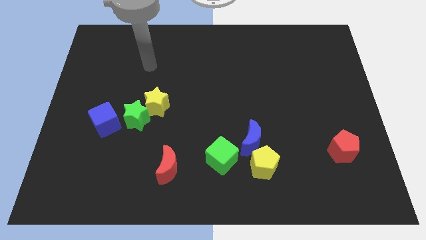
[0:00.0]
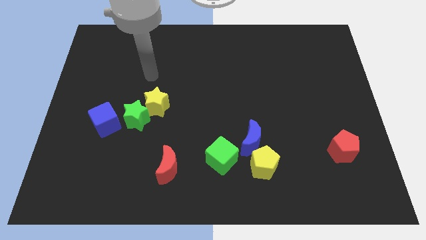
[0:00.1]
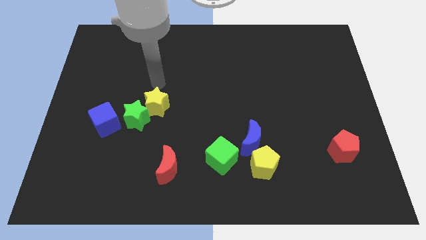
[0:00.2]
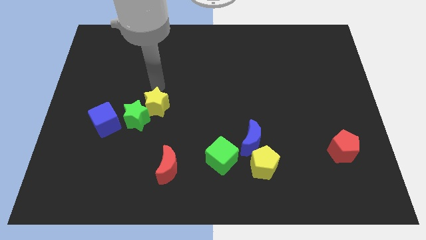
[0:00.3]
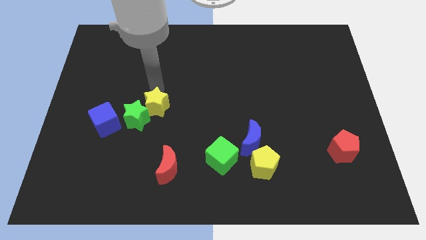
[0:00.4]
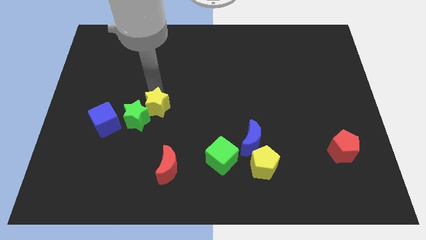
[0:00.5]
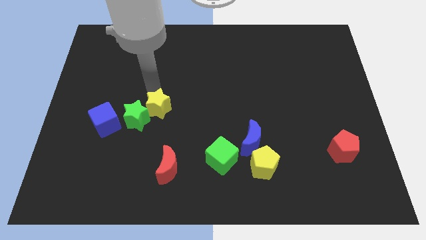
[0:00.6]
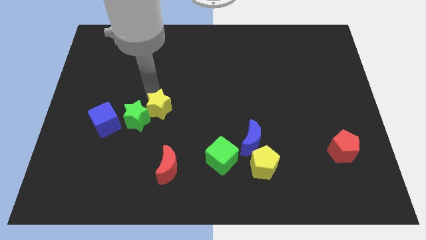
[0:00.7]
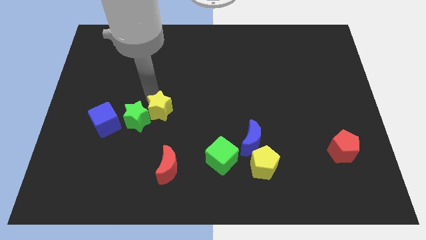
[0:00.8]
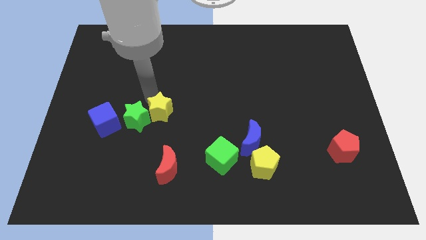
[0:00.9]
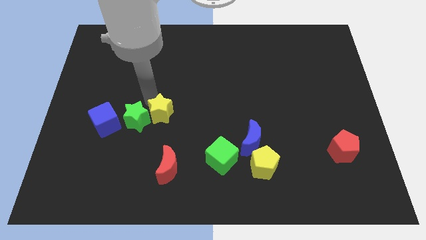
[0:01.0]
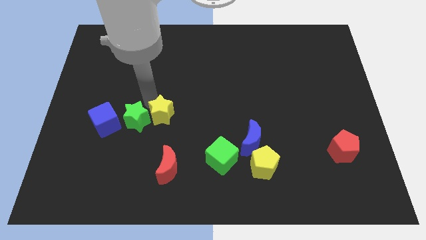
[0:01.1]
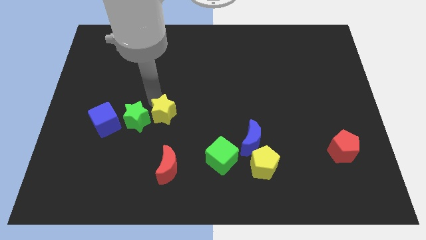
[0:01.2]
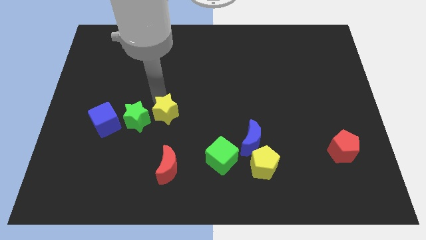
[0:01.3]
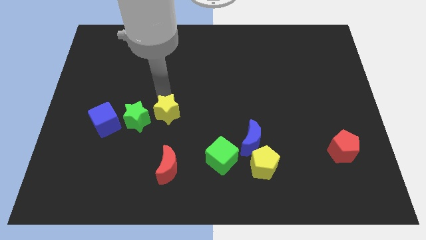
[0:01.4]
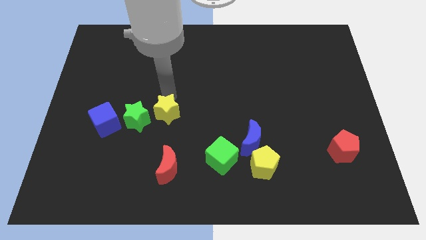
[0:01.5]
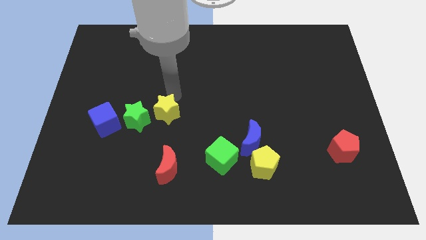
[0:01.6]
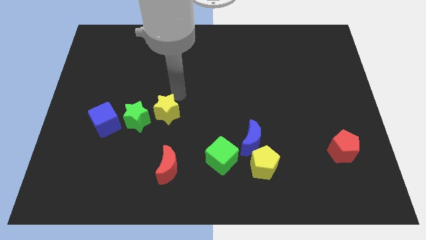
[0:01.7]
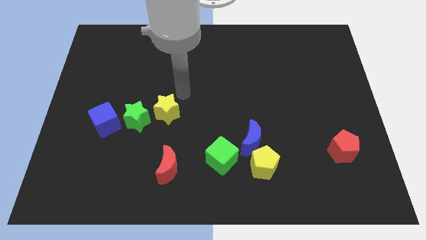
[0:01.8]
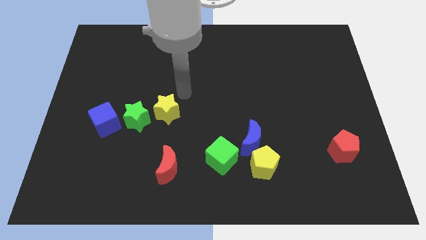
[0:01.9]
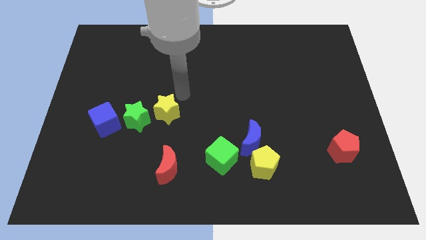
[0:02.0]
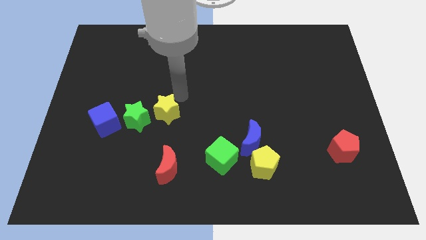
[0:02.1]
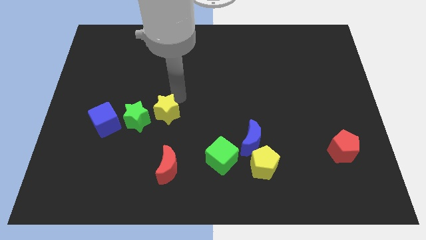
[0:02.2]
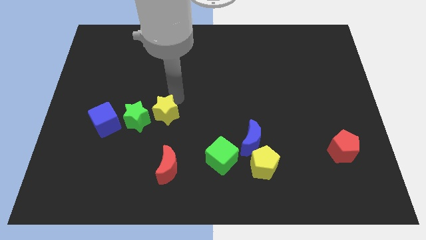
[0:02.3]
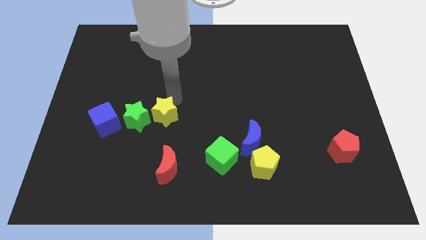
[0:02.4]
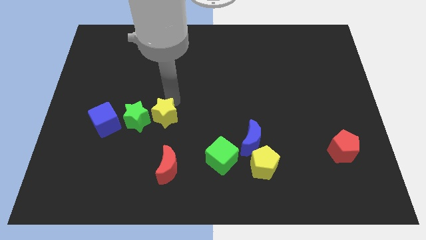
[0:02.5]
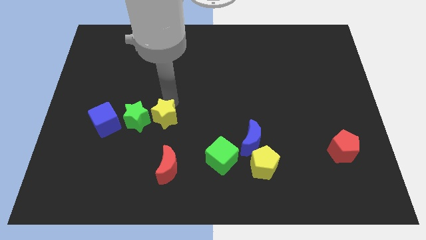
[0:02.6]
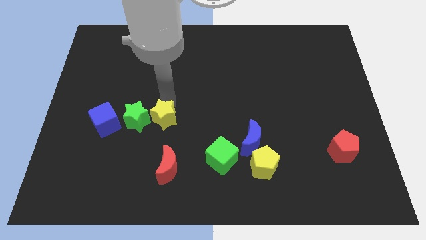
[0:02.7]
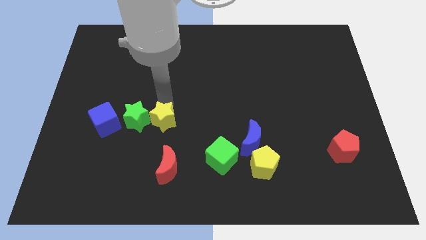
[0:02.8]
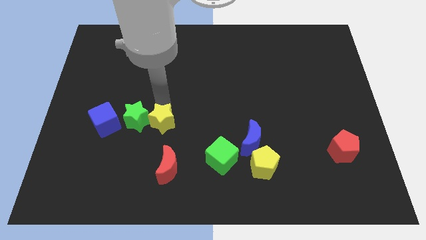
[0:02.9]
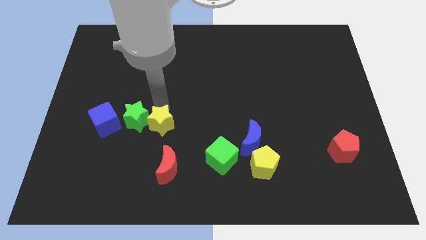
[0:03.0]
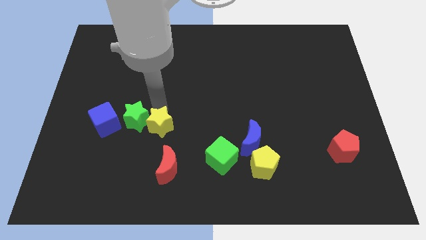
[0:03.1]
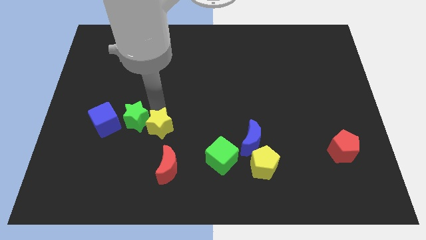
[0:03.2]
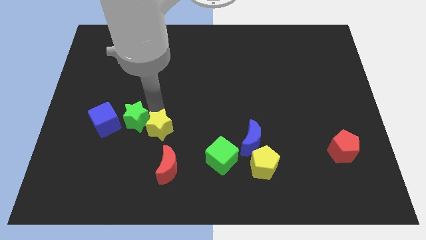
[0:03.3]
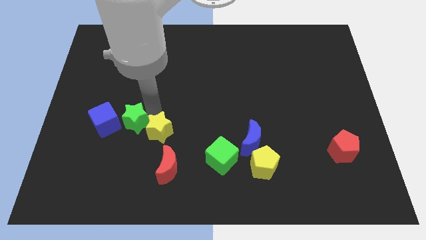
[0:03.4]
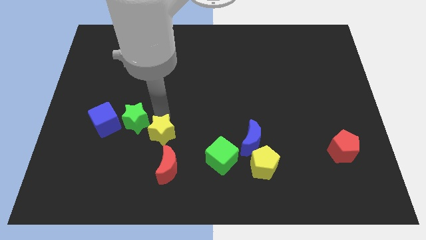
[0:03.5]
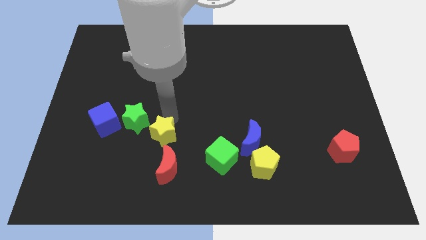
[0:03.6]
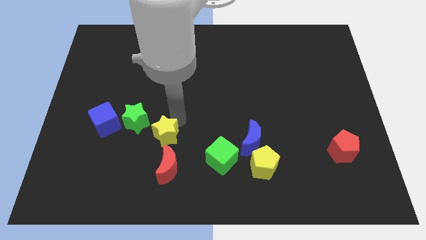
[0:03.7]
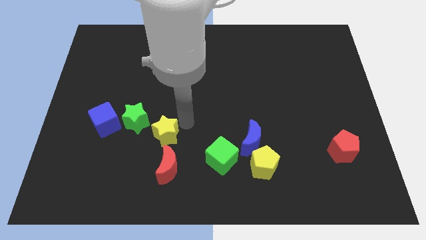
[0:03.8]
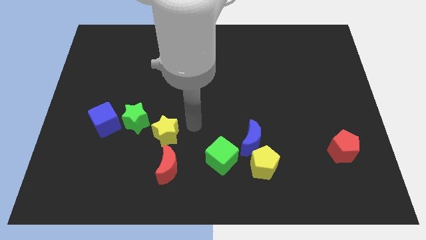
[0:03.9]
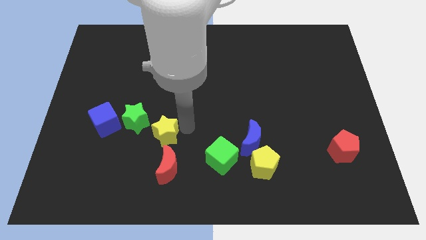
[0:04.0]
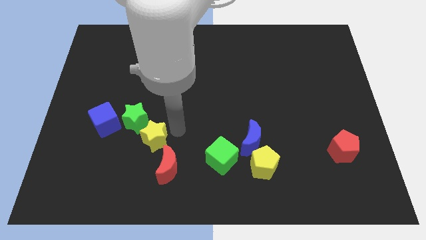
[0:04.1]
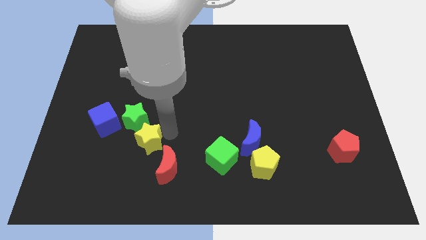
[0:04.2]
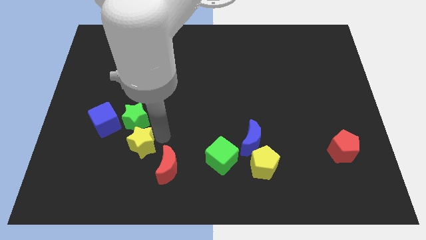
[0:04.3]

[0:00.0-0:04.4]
push the yellow star a little bit diagonally downwards and left

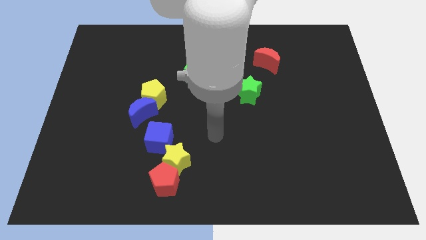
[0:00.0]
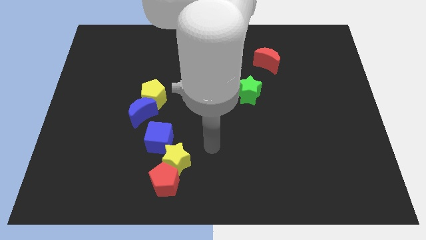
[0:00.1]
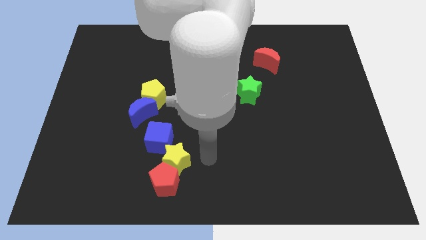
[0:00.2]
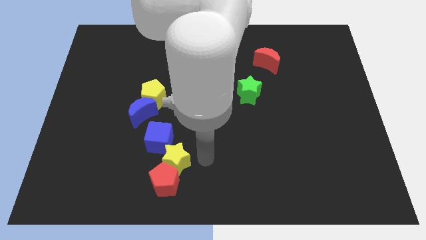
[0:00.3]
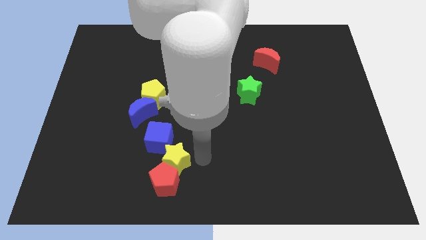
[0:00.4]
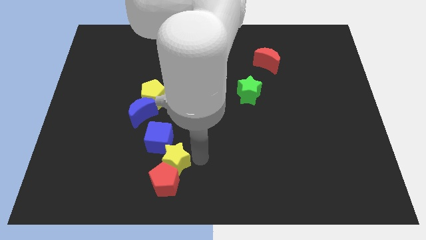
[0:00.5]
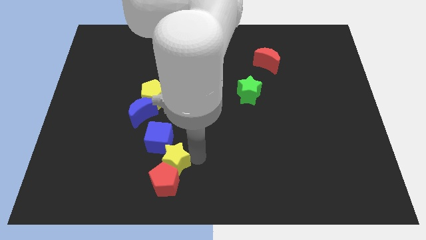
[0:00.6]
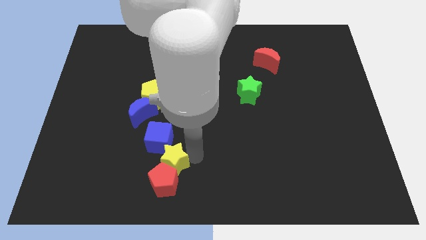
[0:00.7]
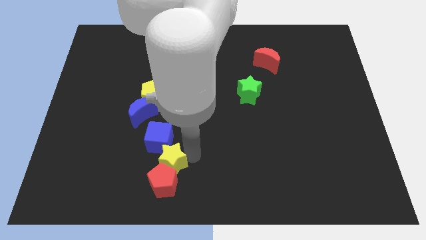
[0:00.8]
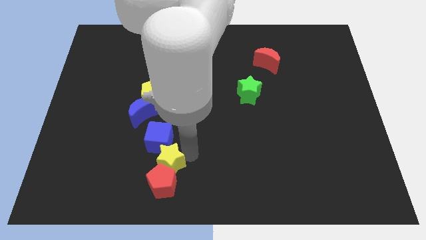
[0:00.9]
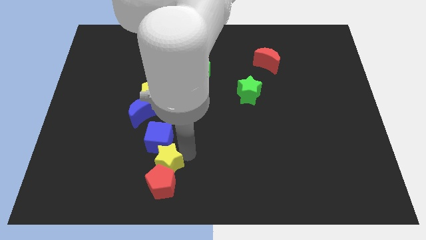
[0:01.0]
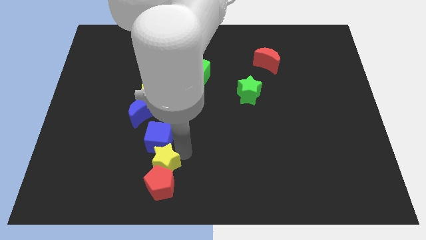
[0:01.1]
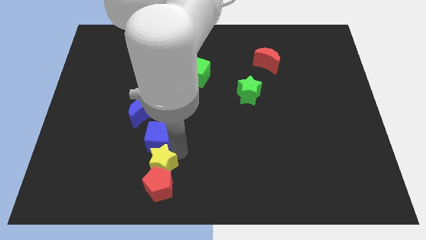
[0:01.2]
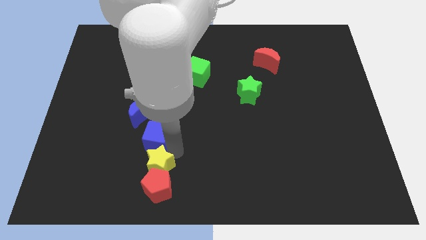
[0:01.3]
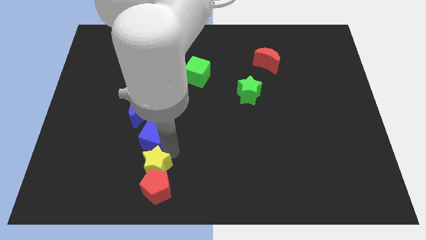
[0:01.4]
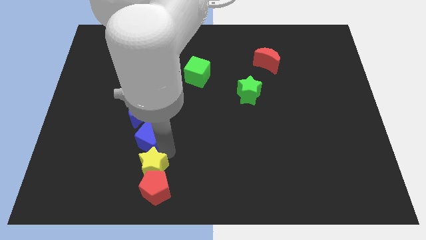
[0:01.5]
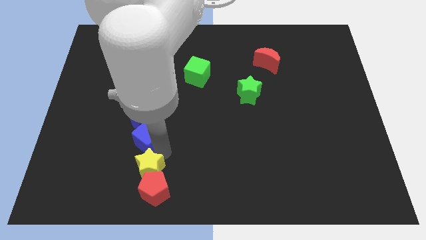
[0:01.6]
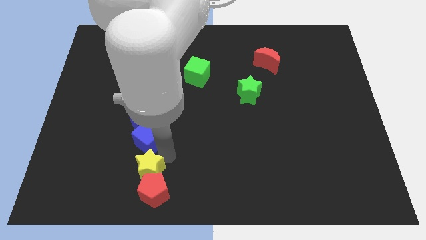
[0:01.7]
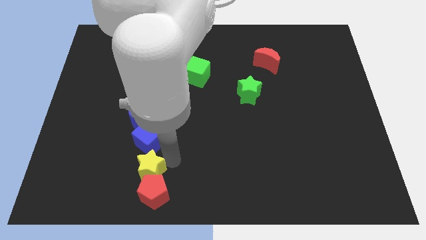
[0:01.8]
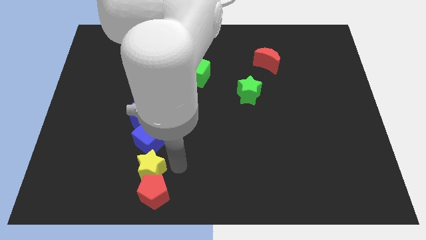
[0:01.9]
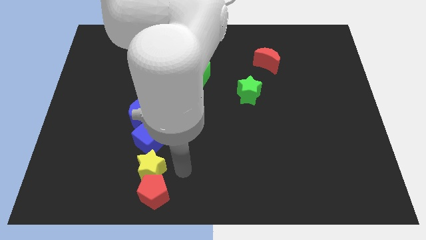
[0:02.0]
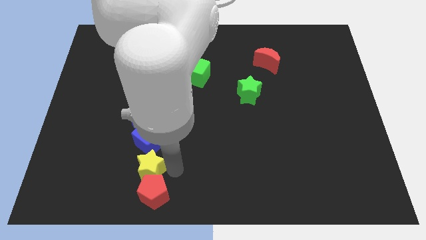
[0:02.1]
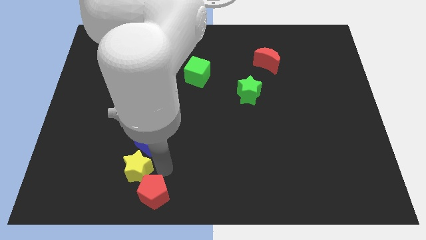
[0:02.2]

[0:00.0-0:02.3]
slightly push the yellow star to the left

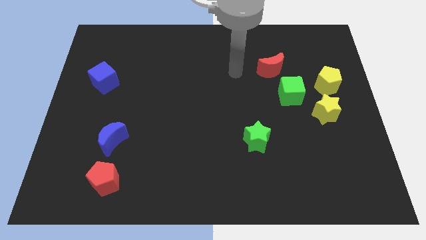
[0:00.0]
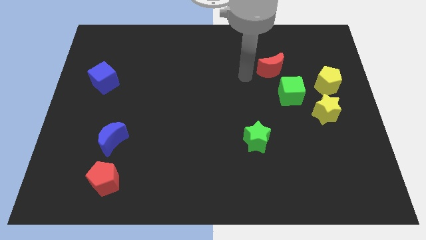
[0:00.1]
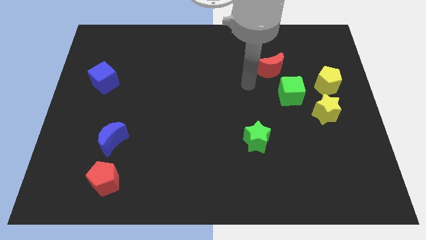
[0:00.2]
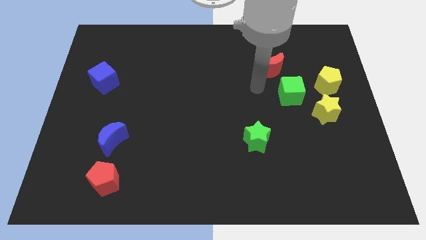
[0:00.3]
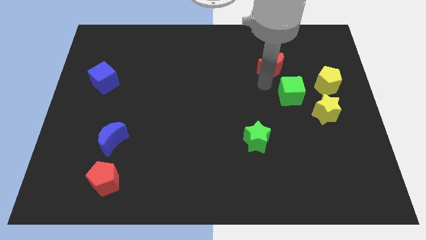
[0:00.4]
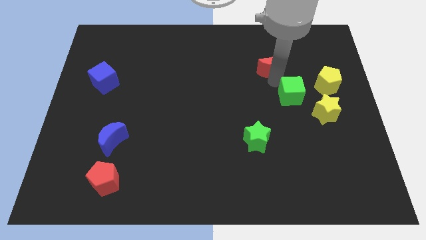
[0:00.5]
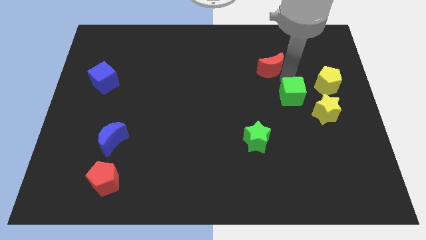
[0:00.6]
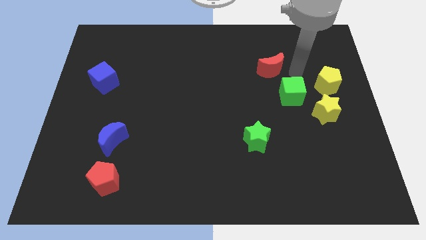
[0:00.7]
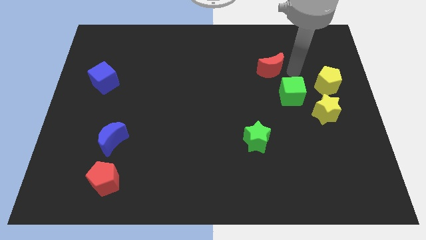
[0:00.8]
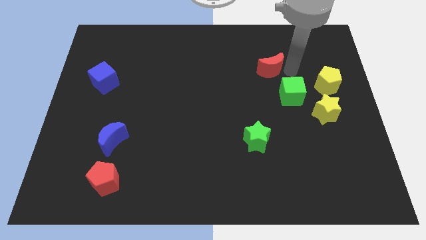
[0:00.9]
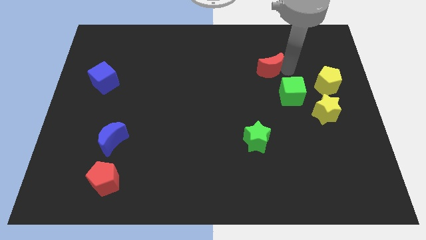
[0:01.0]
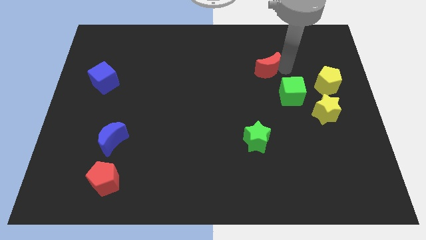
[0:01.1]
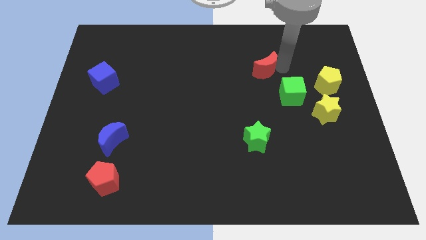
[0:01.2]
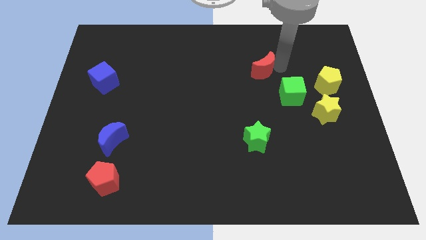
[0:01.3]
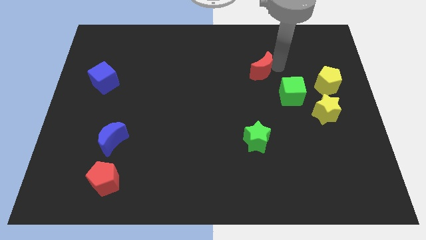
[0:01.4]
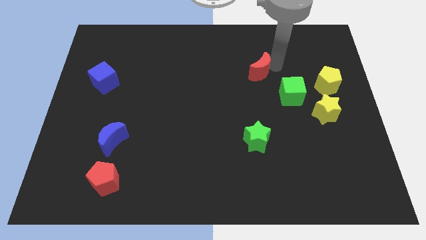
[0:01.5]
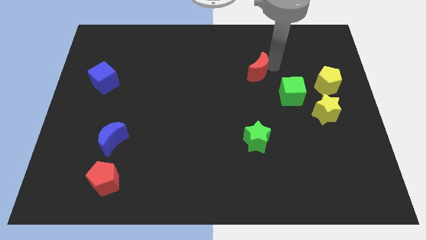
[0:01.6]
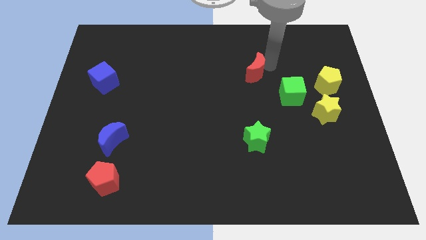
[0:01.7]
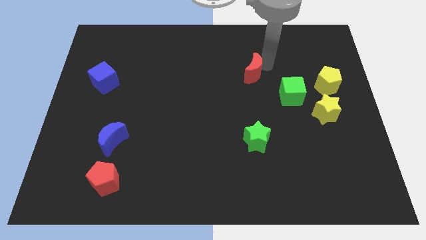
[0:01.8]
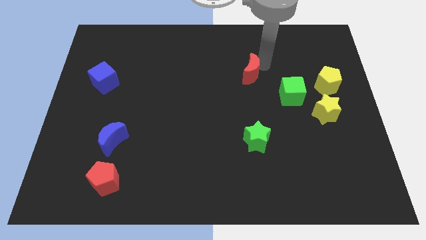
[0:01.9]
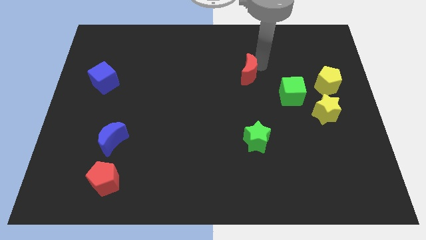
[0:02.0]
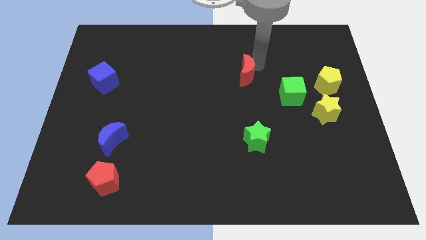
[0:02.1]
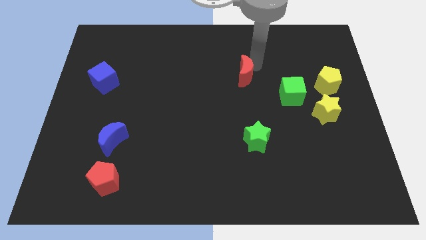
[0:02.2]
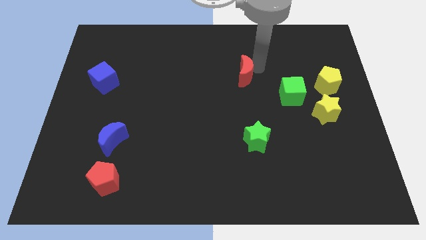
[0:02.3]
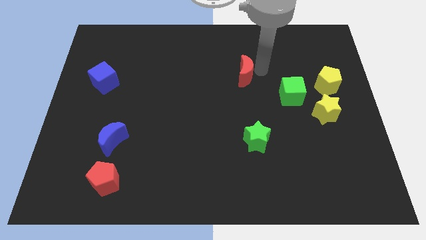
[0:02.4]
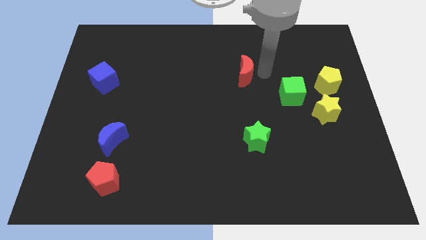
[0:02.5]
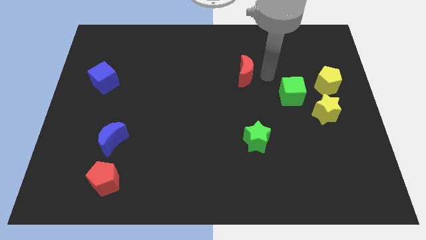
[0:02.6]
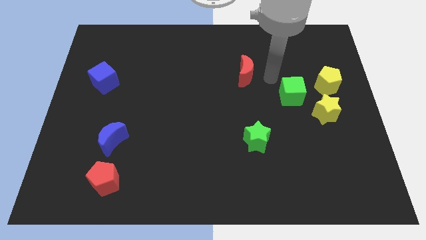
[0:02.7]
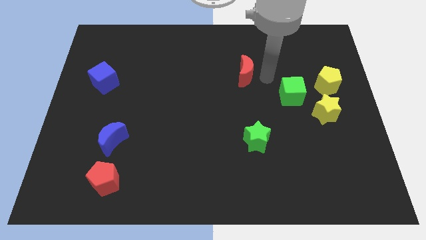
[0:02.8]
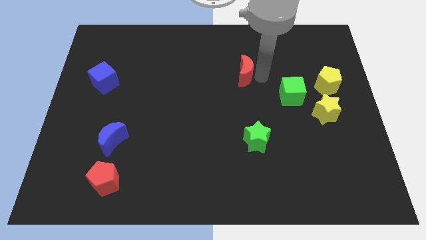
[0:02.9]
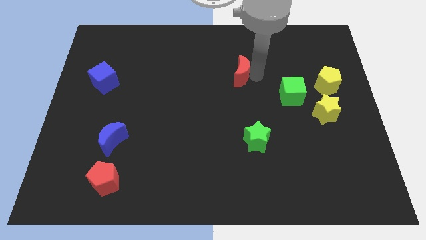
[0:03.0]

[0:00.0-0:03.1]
push the red moon left a bit
